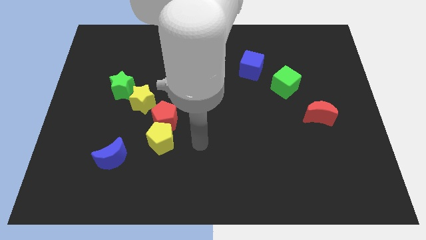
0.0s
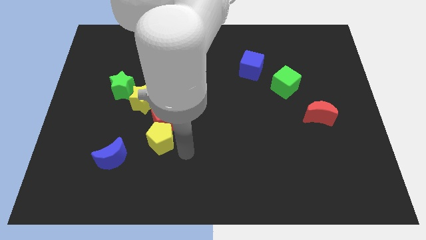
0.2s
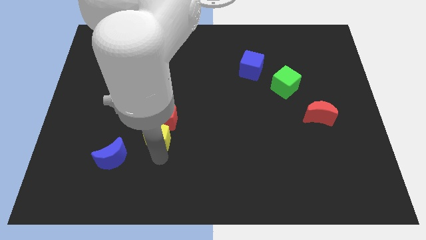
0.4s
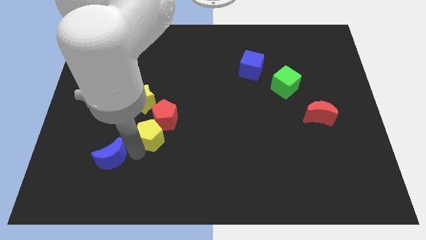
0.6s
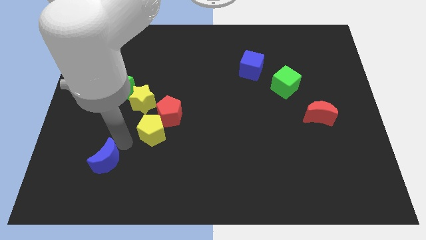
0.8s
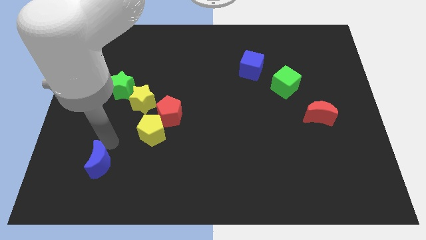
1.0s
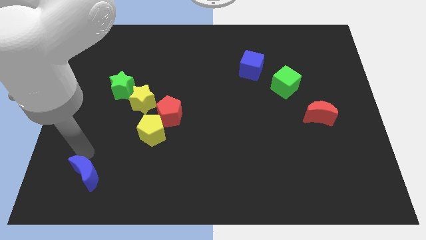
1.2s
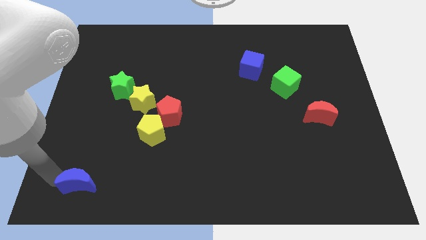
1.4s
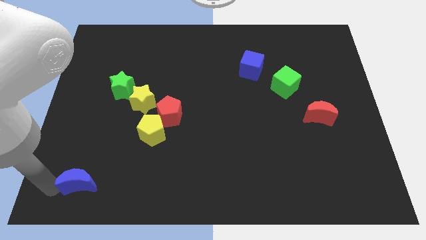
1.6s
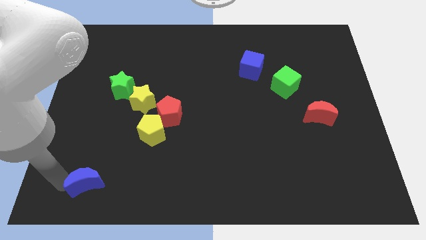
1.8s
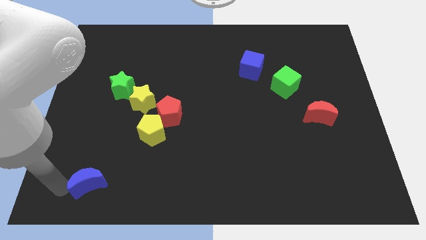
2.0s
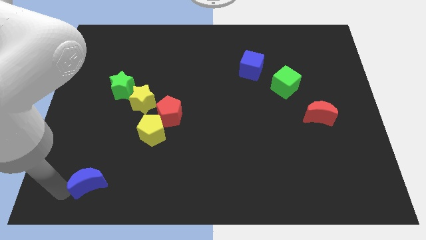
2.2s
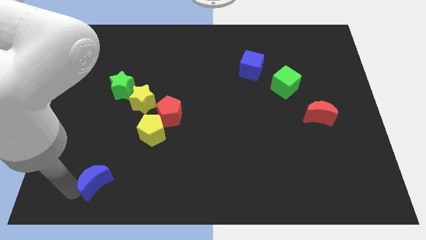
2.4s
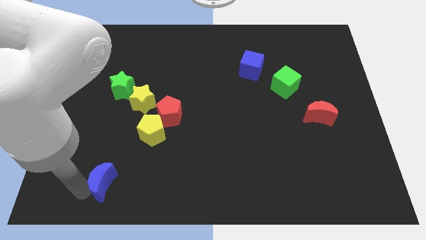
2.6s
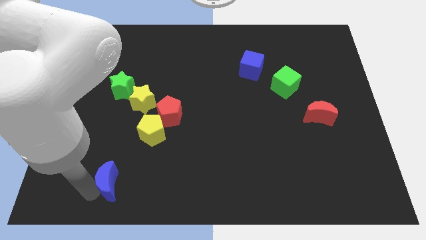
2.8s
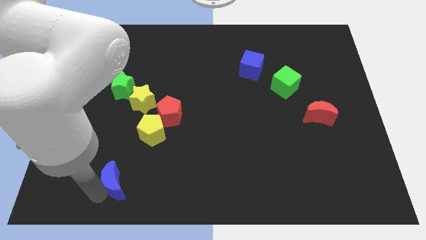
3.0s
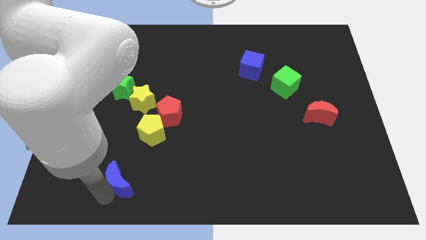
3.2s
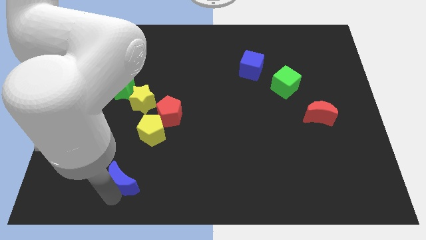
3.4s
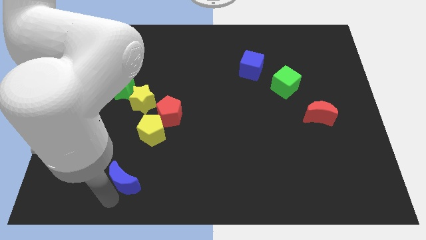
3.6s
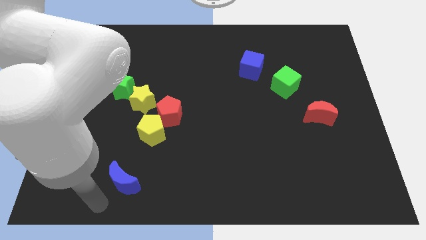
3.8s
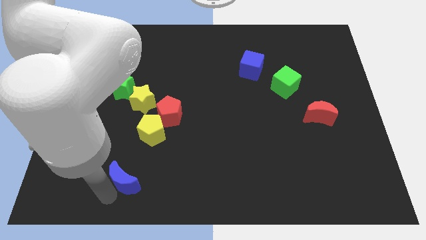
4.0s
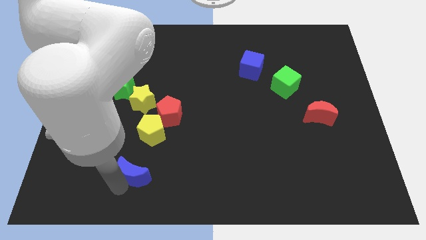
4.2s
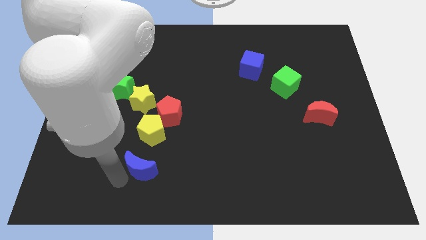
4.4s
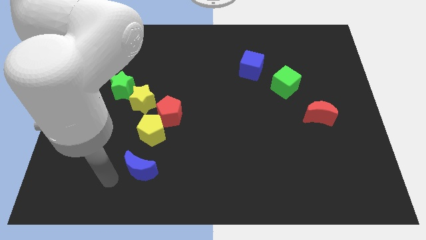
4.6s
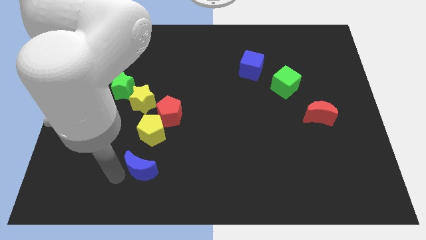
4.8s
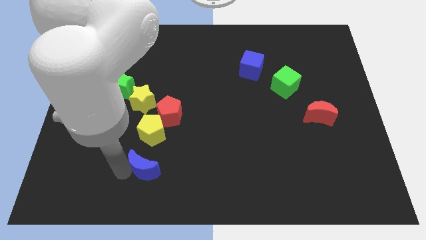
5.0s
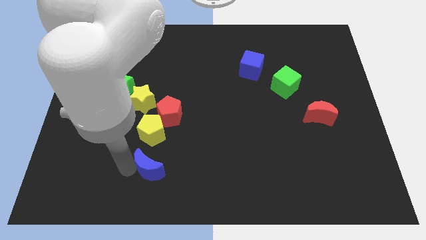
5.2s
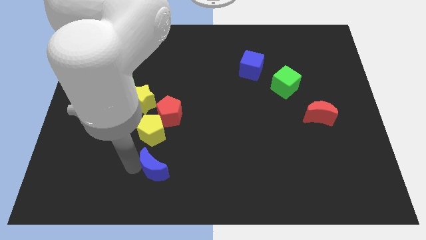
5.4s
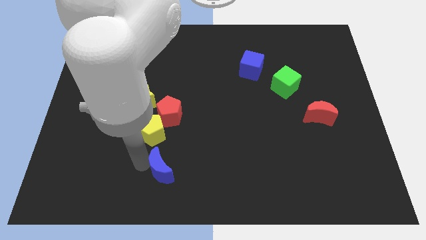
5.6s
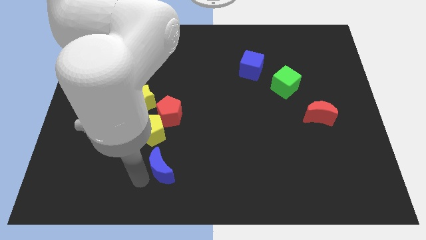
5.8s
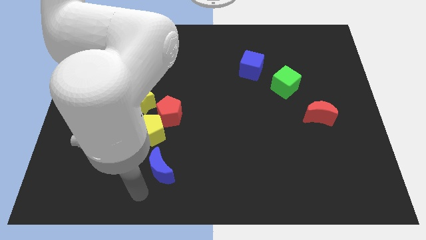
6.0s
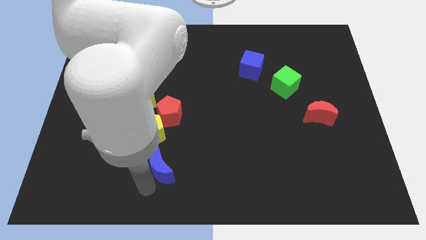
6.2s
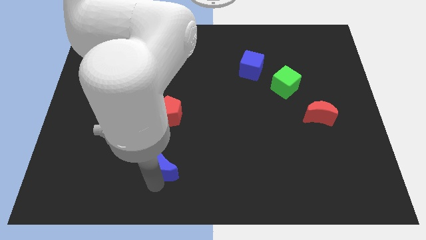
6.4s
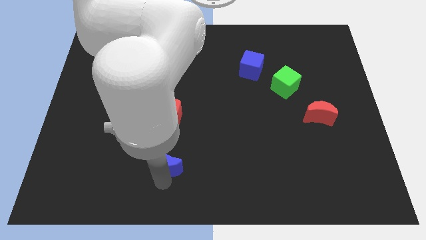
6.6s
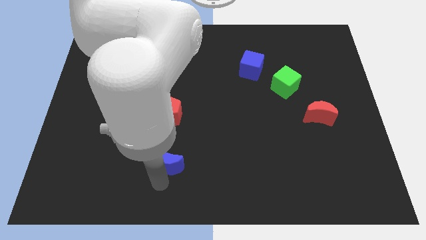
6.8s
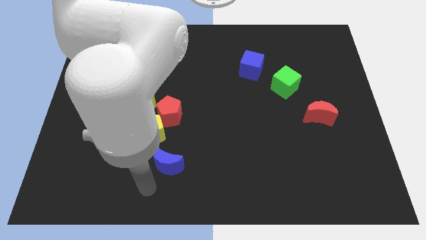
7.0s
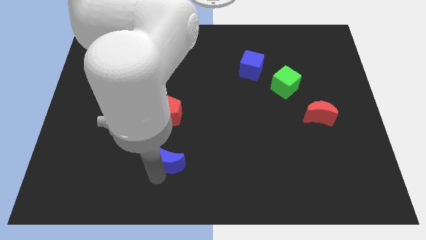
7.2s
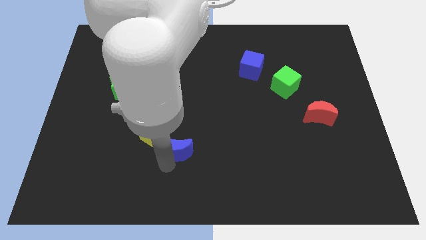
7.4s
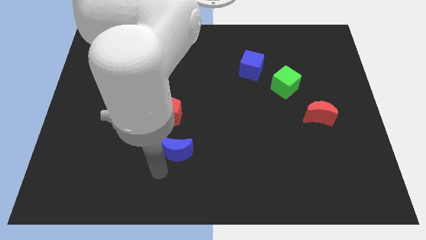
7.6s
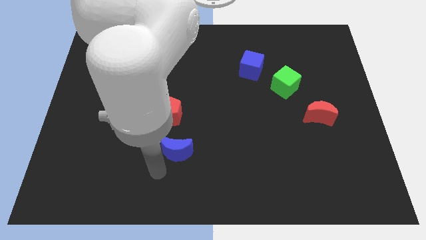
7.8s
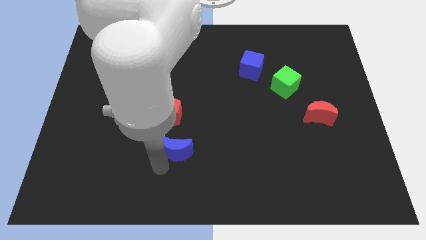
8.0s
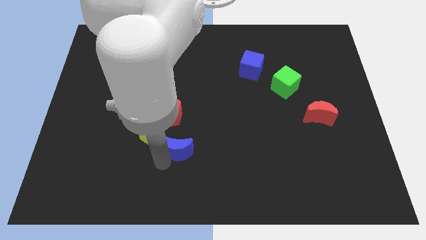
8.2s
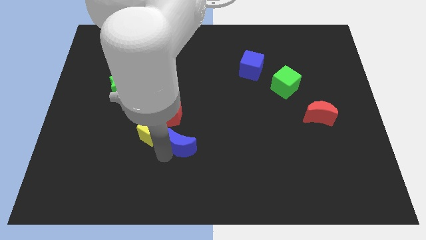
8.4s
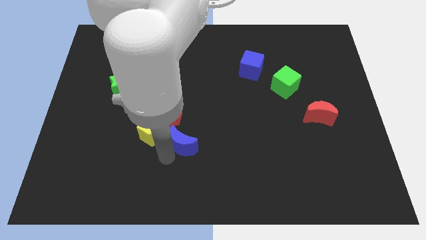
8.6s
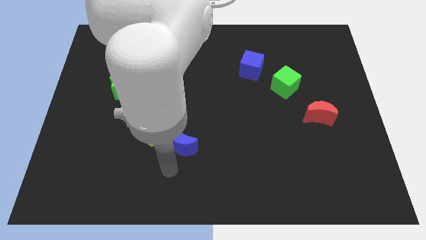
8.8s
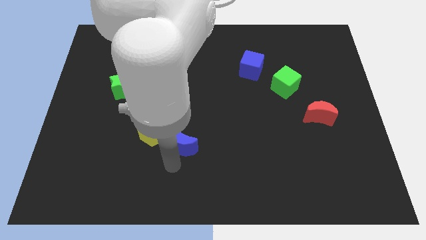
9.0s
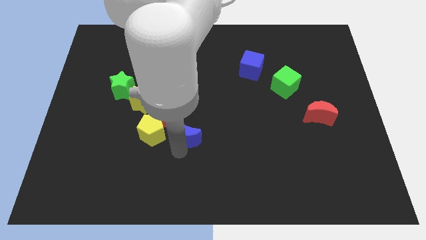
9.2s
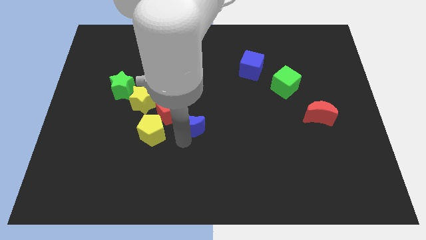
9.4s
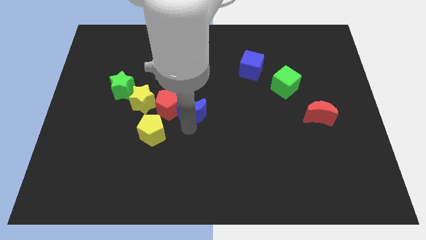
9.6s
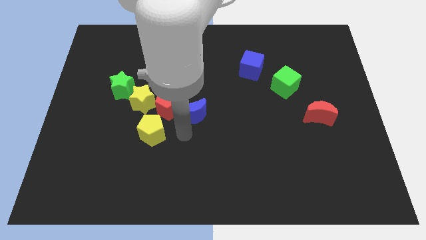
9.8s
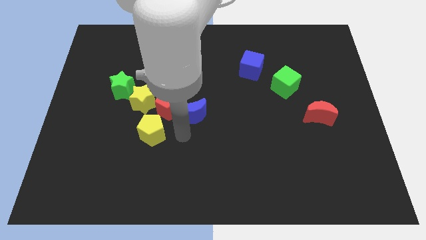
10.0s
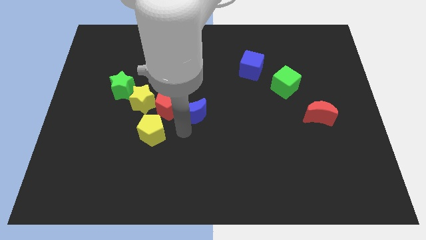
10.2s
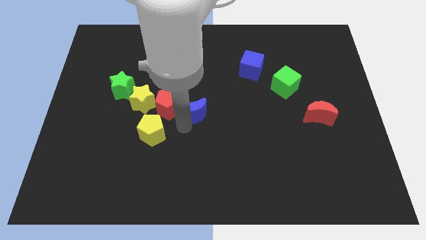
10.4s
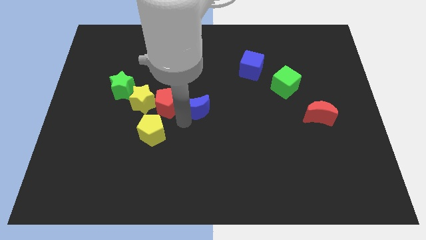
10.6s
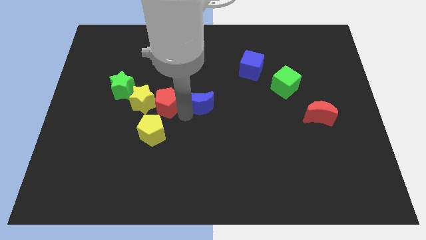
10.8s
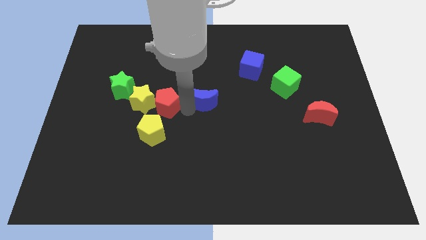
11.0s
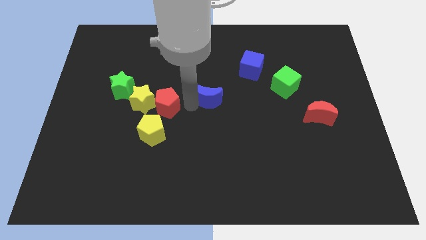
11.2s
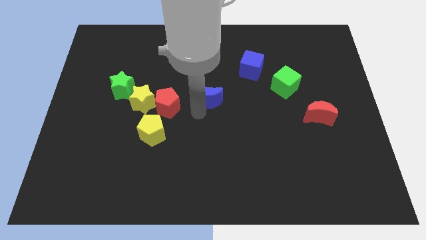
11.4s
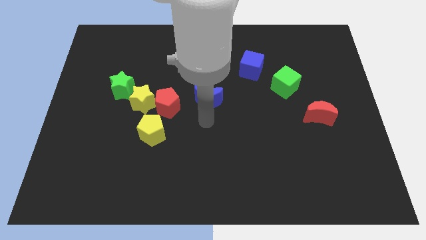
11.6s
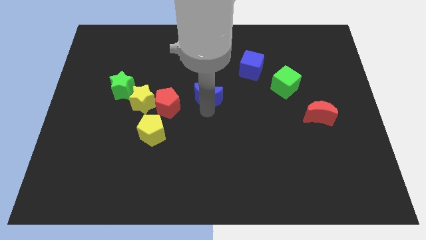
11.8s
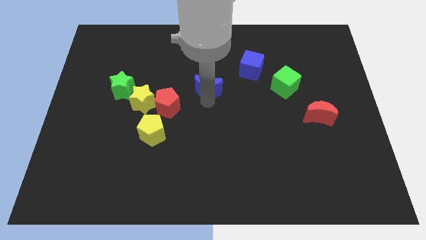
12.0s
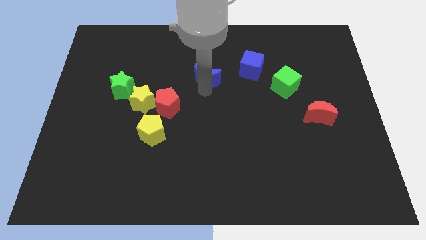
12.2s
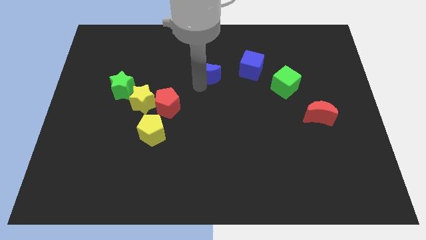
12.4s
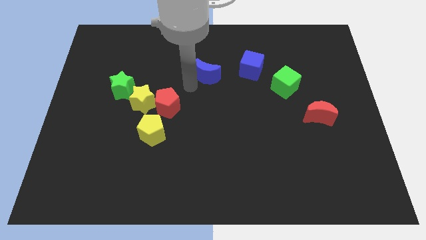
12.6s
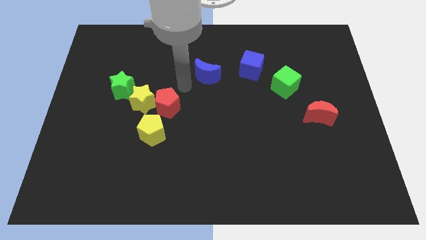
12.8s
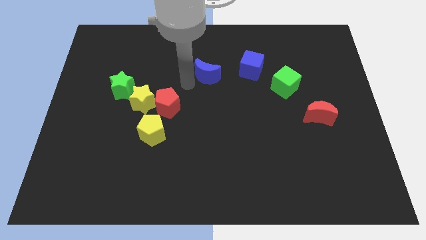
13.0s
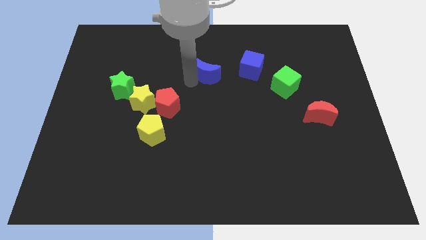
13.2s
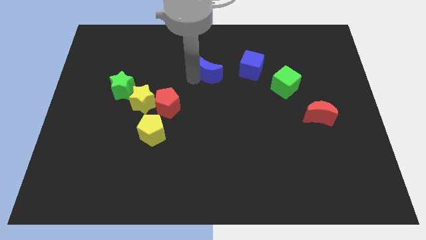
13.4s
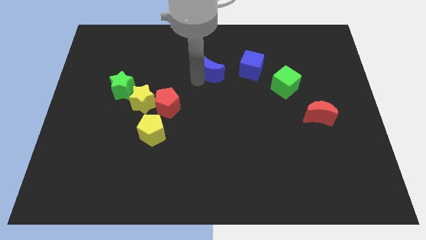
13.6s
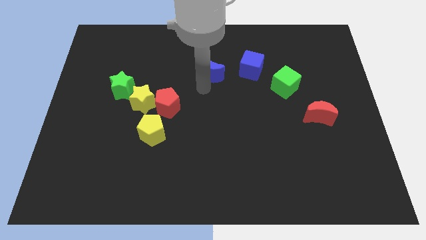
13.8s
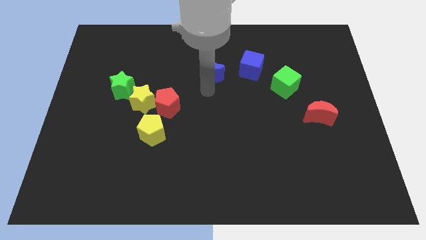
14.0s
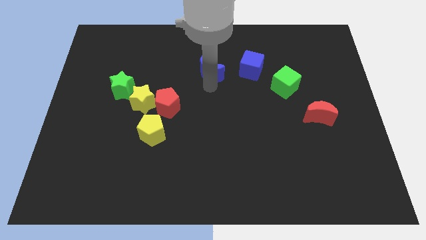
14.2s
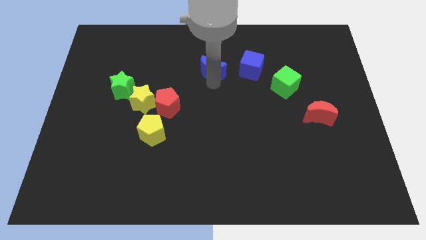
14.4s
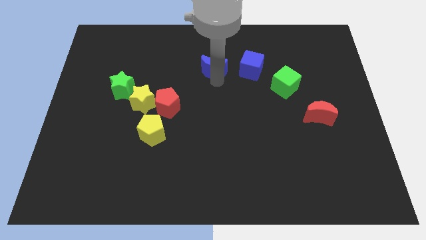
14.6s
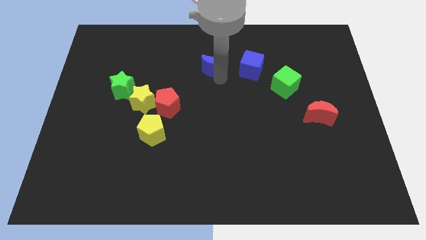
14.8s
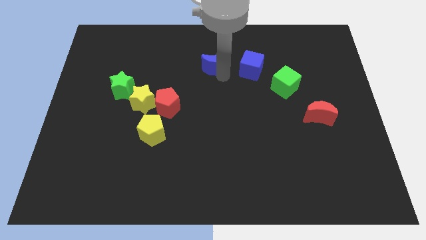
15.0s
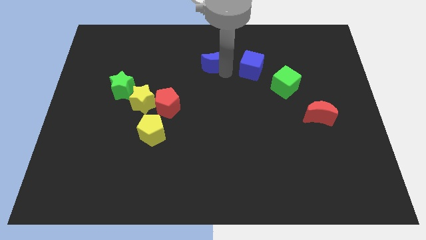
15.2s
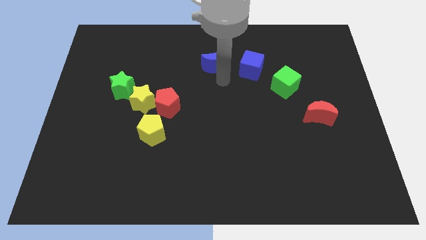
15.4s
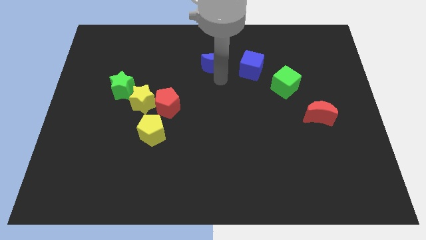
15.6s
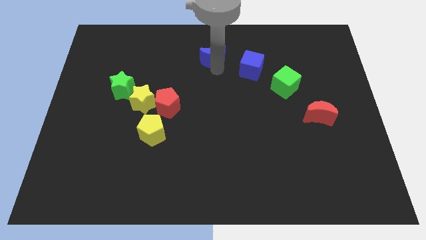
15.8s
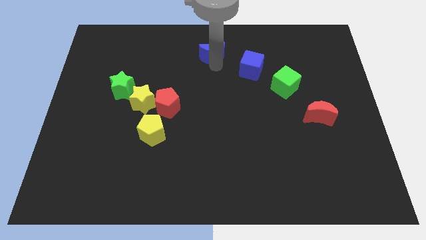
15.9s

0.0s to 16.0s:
put the blue moon to the top
